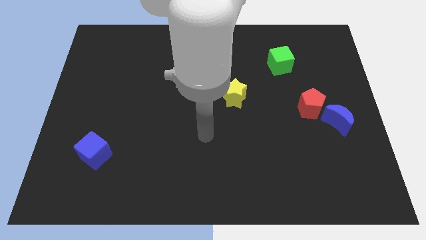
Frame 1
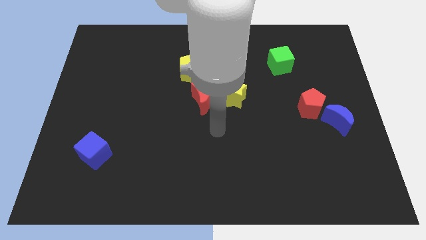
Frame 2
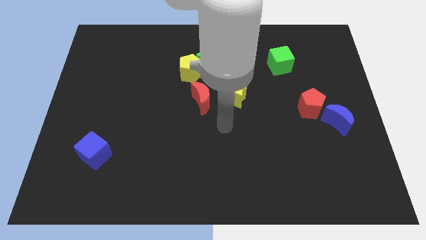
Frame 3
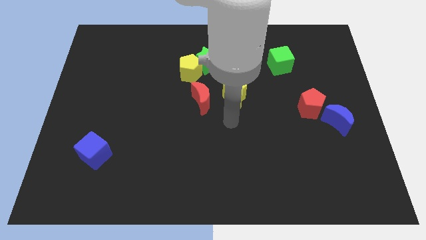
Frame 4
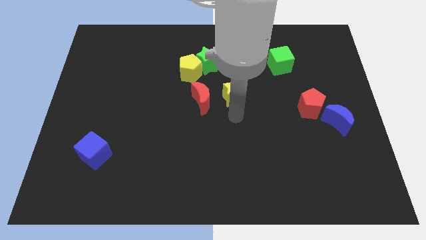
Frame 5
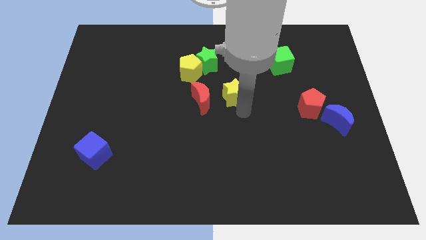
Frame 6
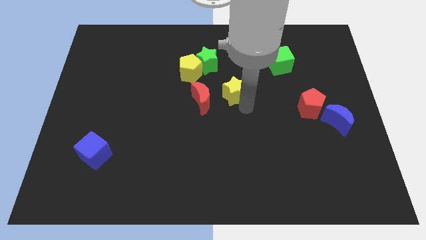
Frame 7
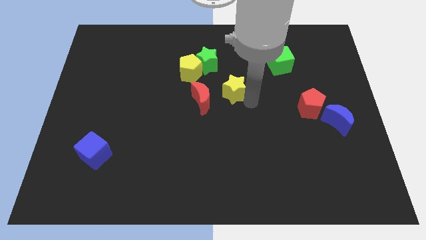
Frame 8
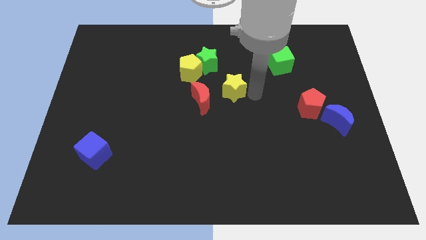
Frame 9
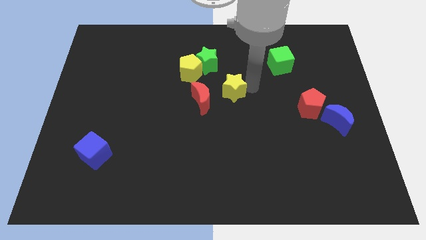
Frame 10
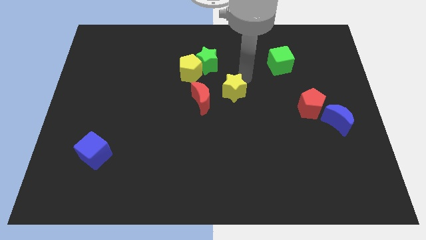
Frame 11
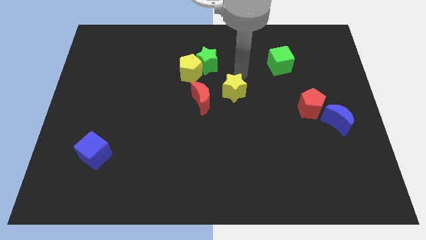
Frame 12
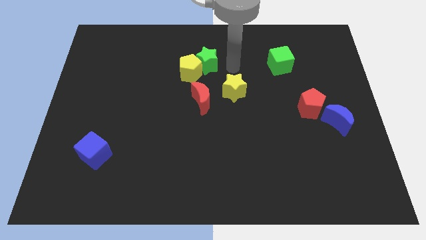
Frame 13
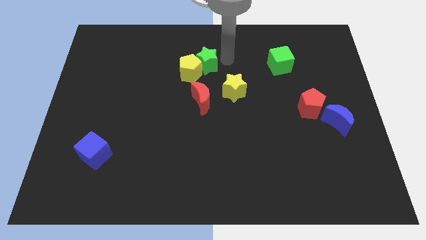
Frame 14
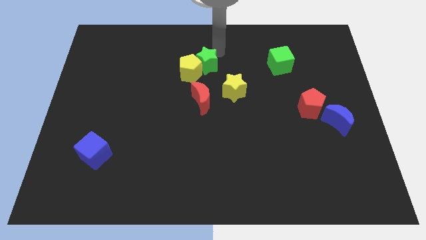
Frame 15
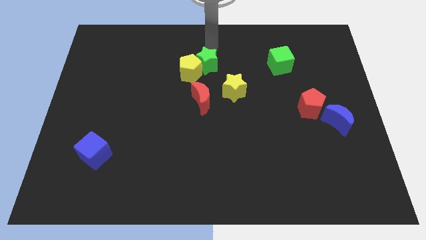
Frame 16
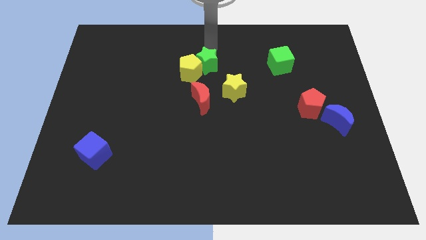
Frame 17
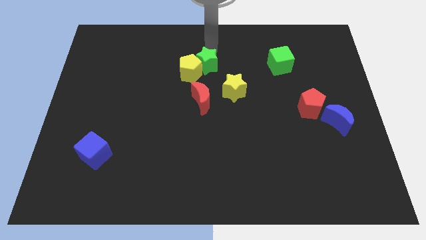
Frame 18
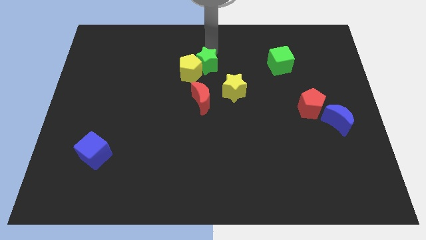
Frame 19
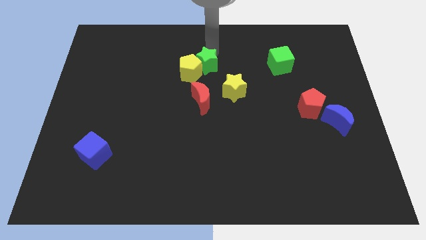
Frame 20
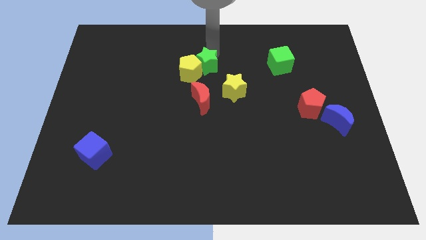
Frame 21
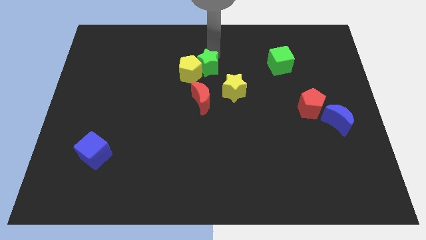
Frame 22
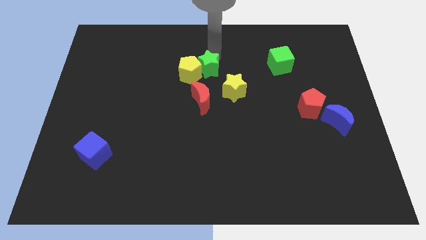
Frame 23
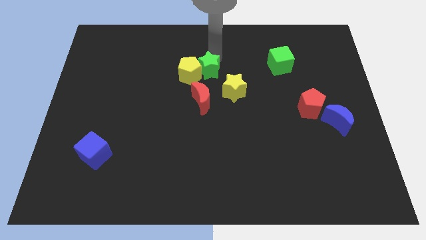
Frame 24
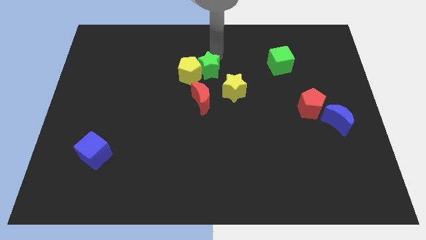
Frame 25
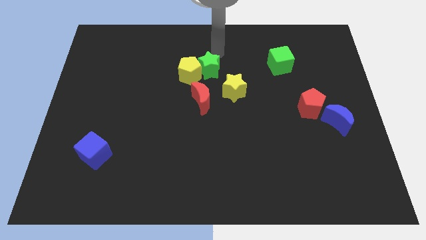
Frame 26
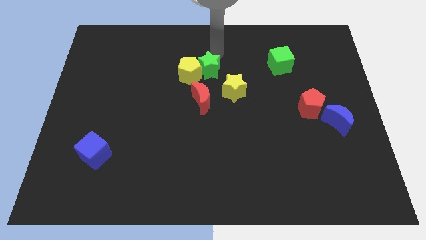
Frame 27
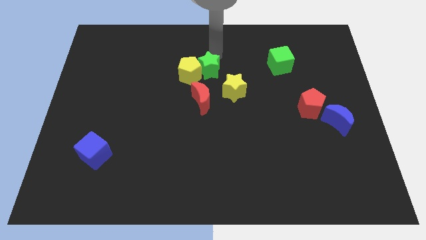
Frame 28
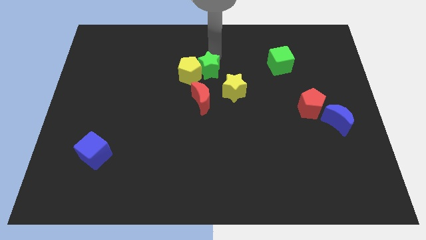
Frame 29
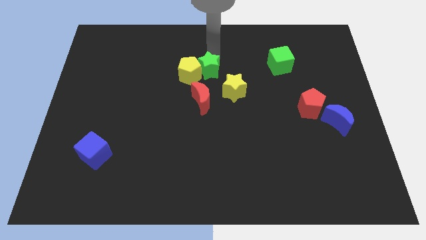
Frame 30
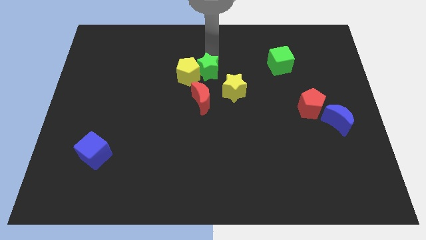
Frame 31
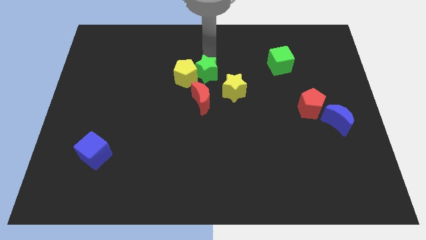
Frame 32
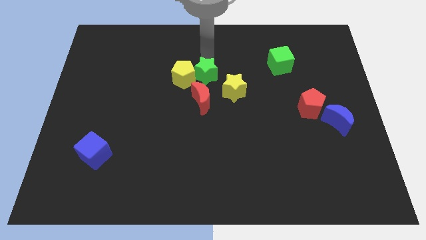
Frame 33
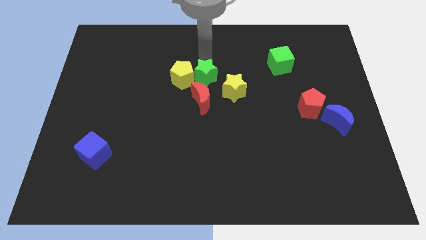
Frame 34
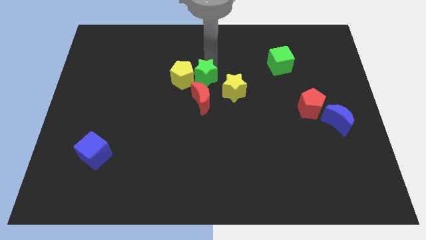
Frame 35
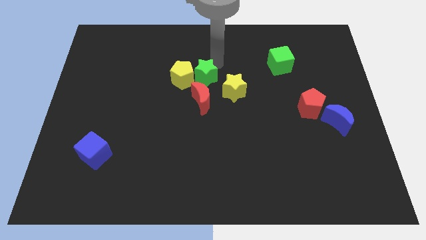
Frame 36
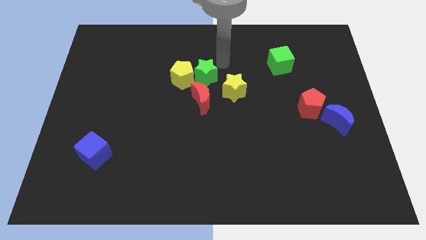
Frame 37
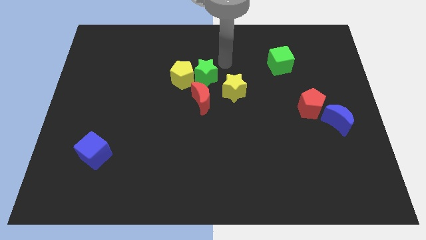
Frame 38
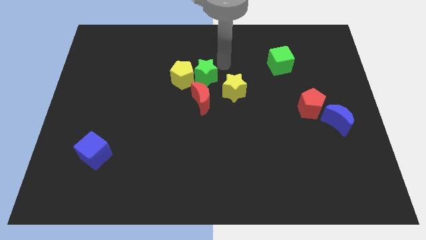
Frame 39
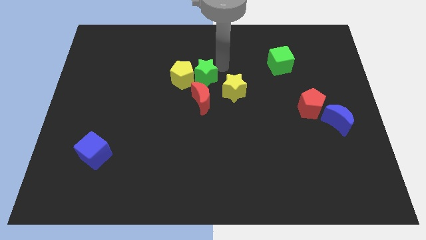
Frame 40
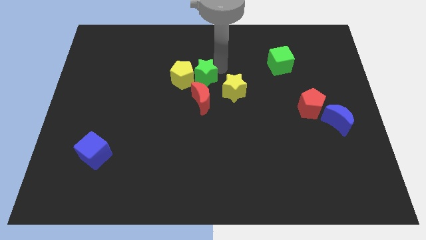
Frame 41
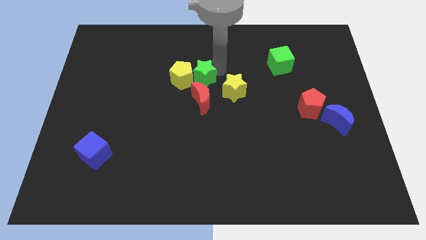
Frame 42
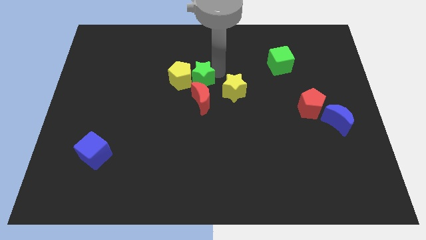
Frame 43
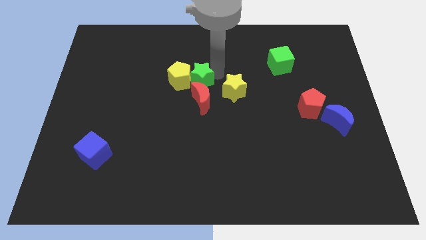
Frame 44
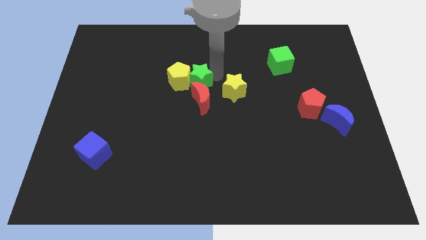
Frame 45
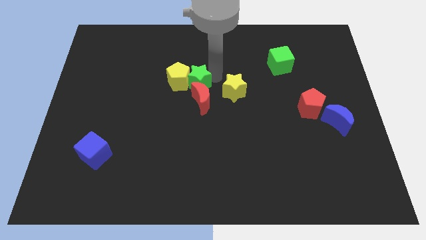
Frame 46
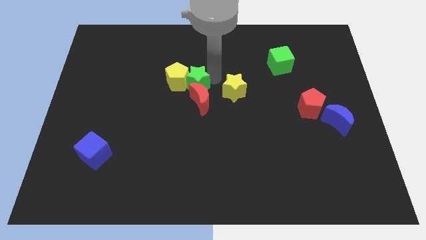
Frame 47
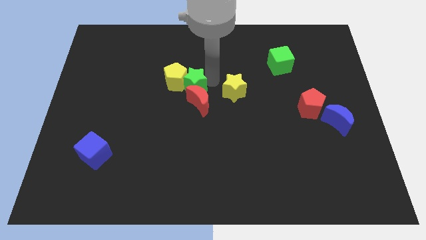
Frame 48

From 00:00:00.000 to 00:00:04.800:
slightly push the green star diagonally downwards and left

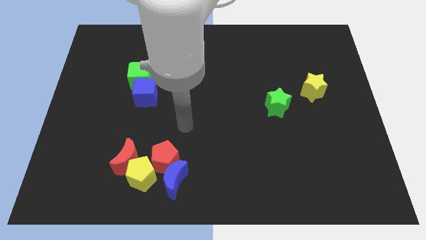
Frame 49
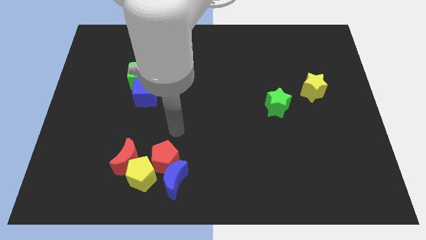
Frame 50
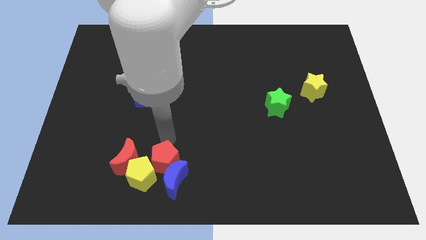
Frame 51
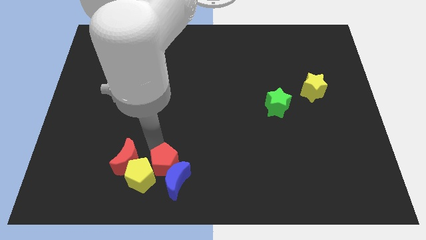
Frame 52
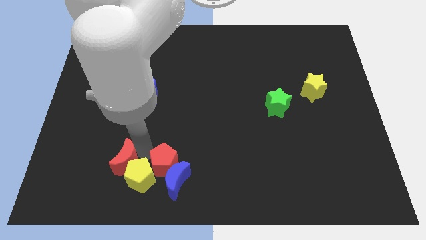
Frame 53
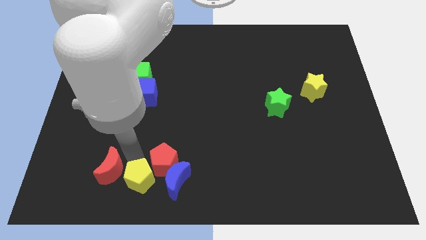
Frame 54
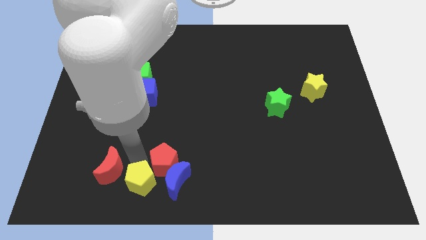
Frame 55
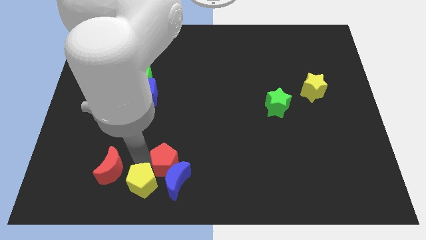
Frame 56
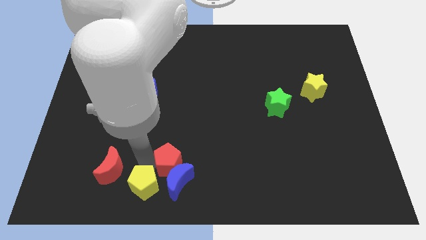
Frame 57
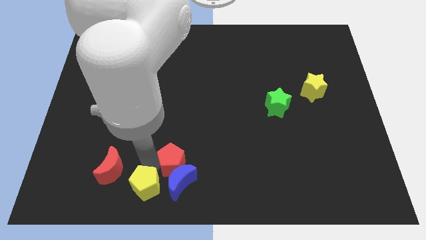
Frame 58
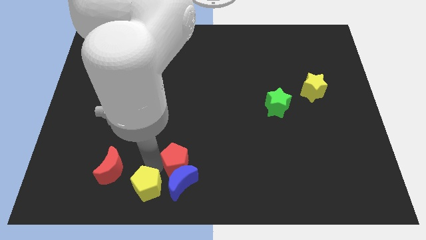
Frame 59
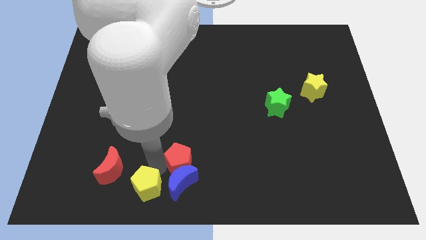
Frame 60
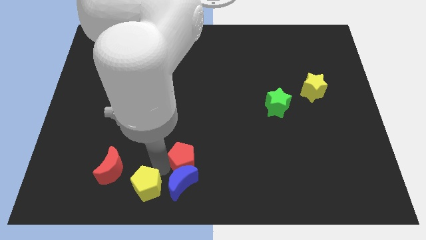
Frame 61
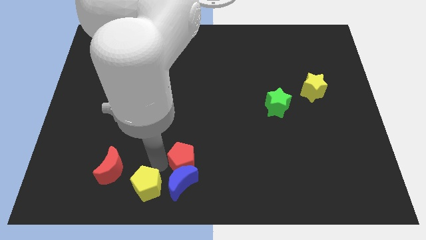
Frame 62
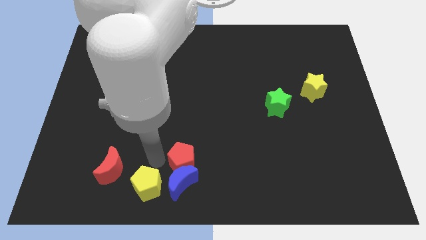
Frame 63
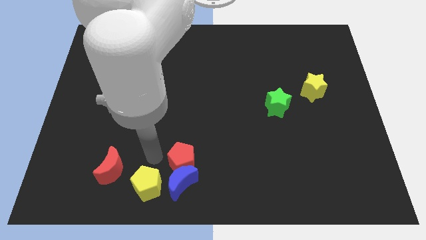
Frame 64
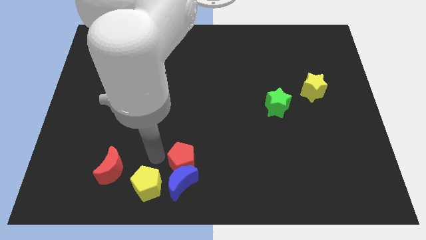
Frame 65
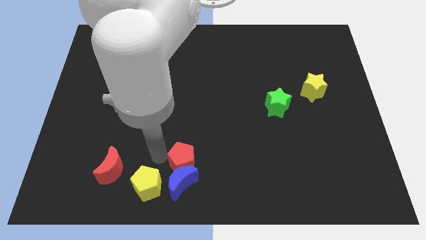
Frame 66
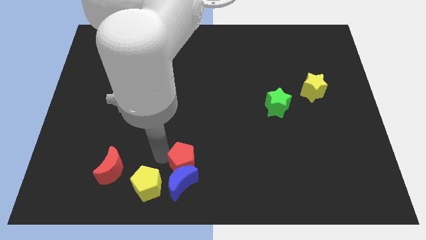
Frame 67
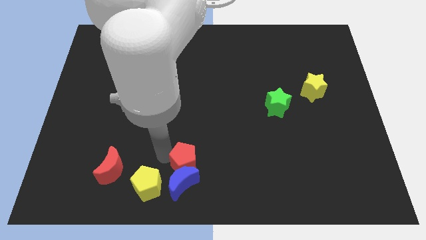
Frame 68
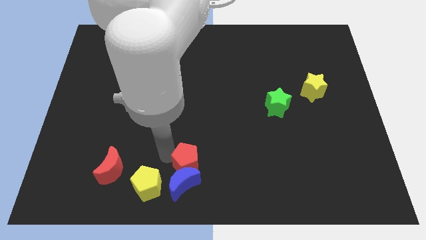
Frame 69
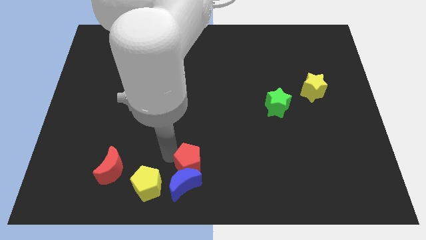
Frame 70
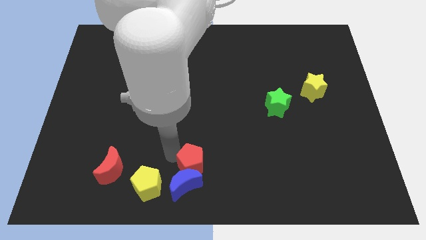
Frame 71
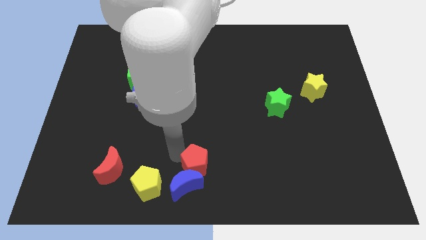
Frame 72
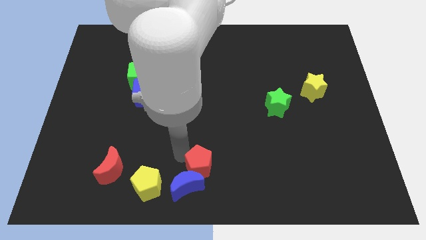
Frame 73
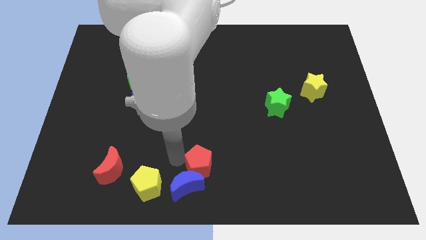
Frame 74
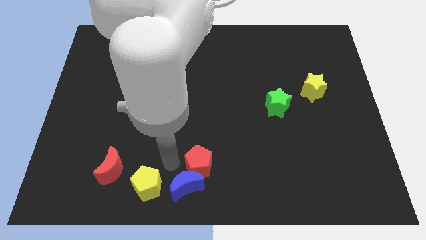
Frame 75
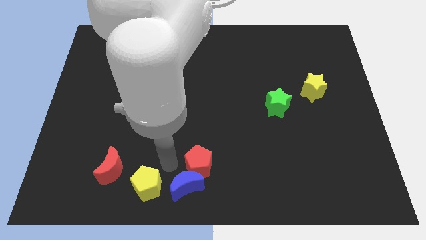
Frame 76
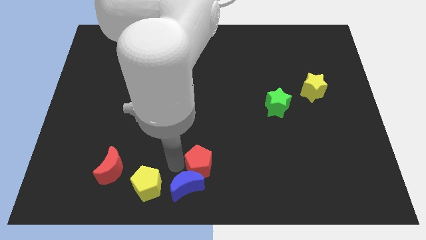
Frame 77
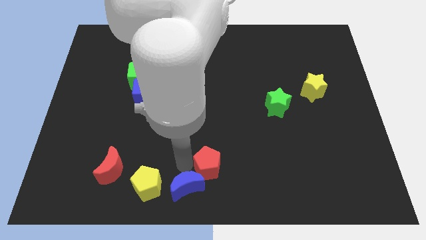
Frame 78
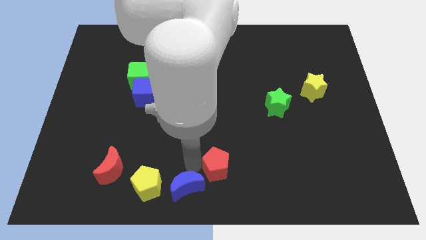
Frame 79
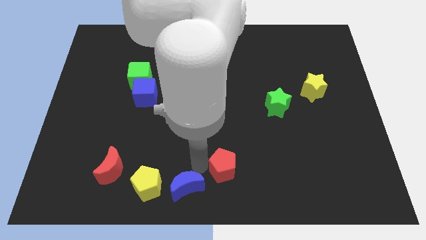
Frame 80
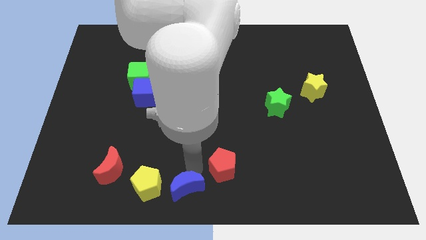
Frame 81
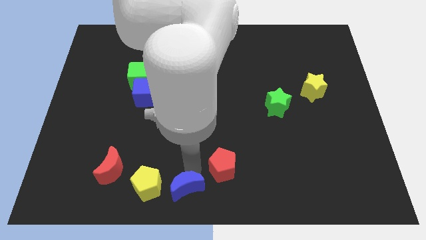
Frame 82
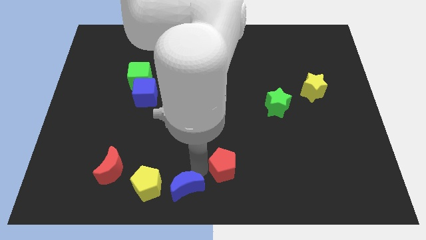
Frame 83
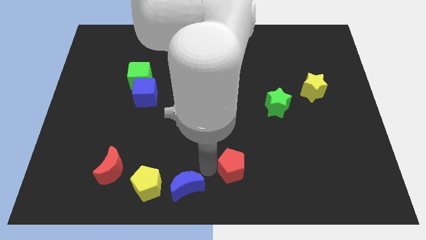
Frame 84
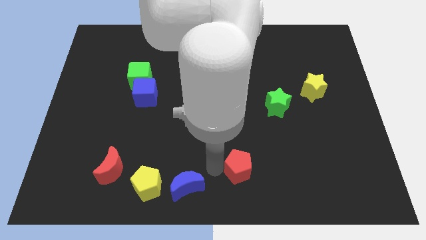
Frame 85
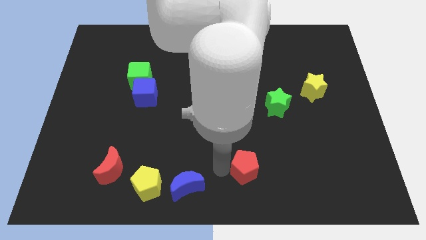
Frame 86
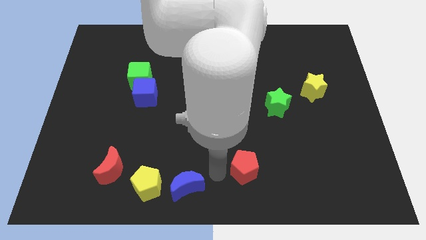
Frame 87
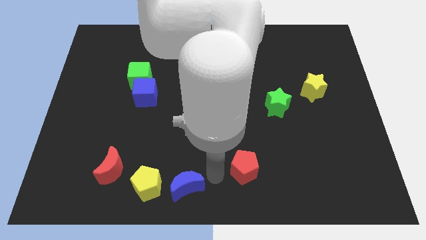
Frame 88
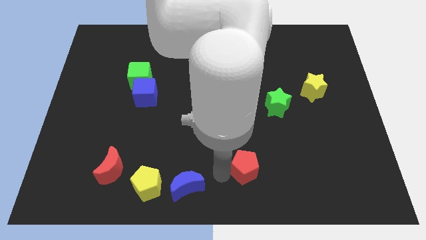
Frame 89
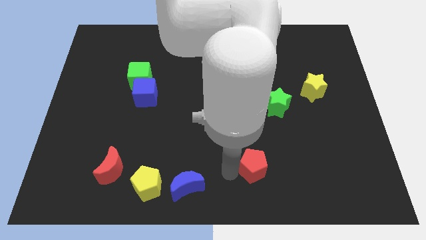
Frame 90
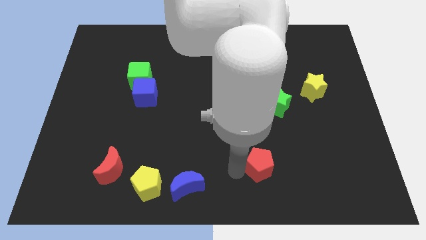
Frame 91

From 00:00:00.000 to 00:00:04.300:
move the red pentagon right
